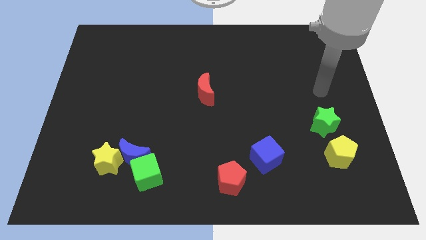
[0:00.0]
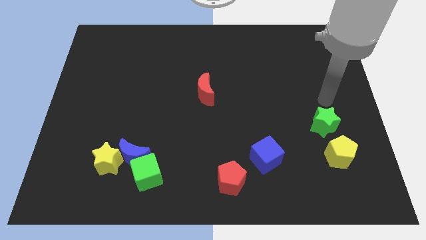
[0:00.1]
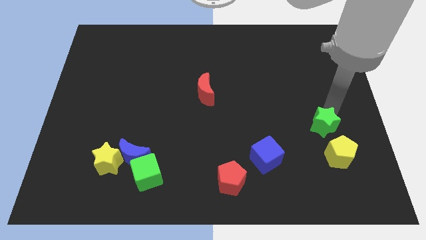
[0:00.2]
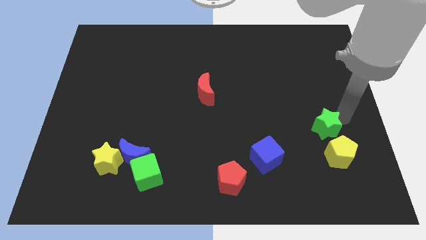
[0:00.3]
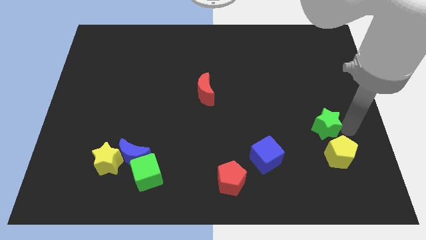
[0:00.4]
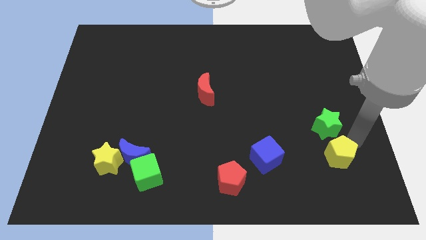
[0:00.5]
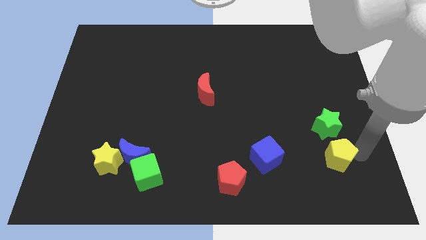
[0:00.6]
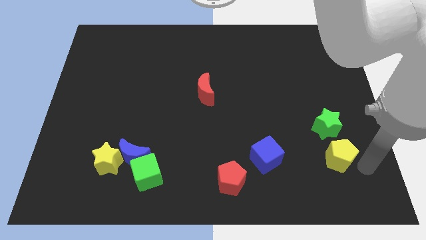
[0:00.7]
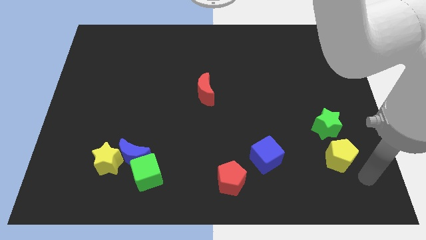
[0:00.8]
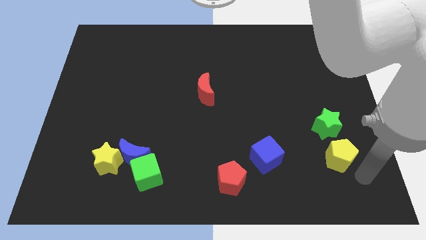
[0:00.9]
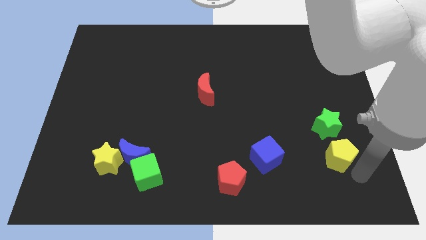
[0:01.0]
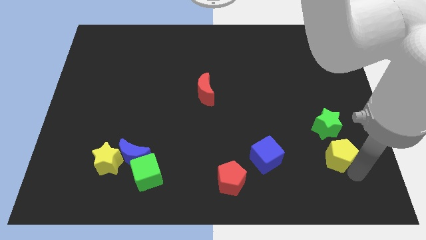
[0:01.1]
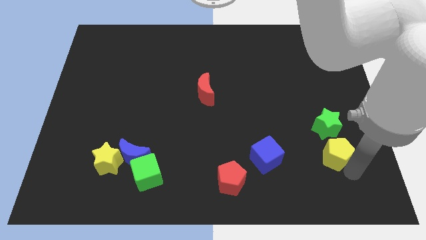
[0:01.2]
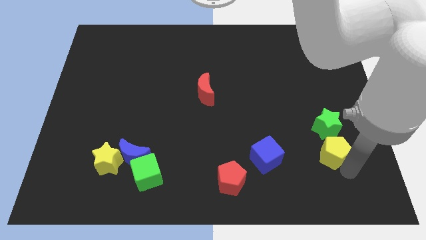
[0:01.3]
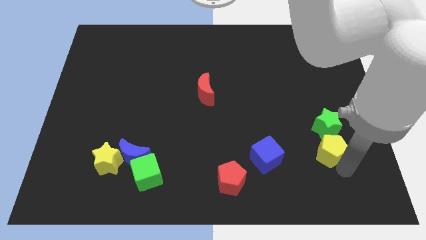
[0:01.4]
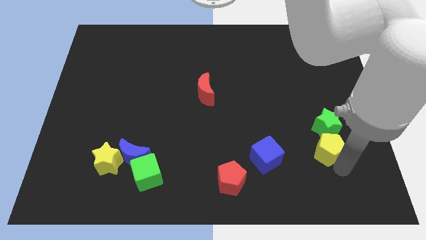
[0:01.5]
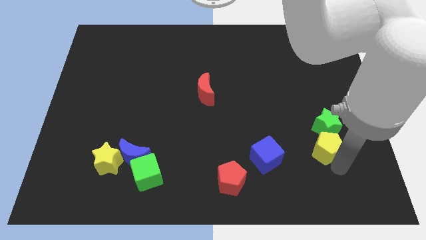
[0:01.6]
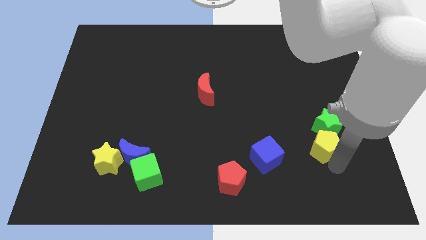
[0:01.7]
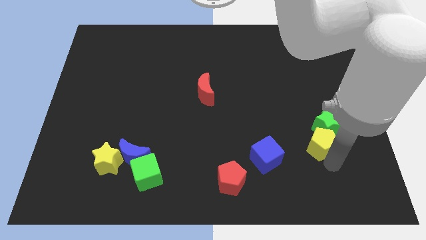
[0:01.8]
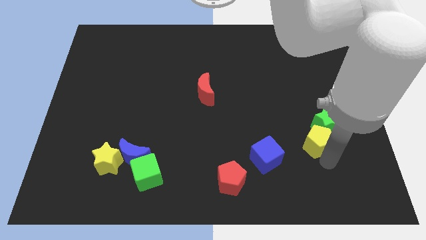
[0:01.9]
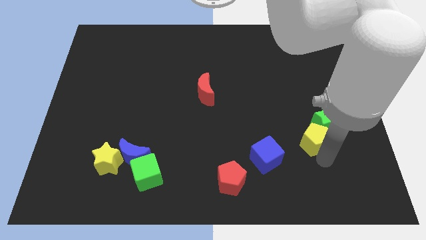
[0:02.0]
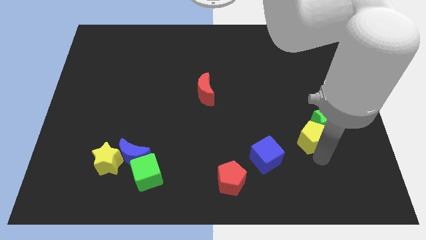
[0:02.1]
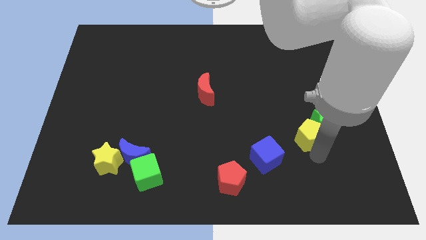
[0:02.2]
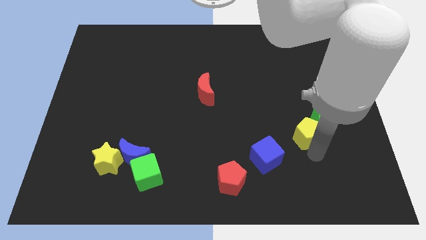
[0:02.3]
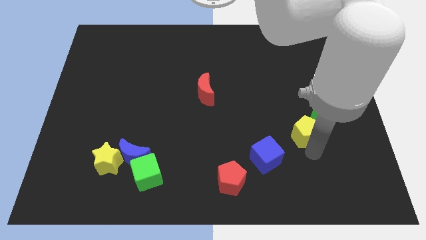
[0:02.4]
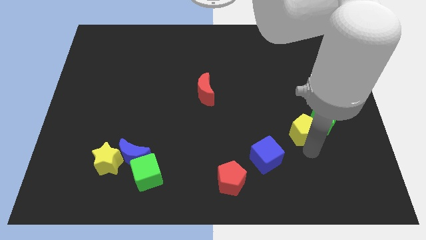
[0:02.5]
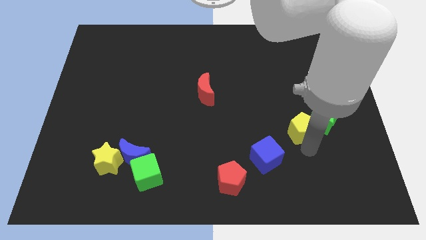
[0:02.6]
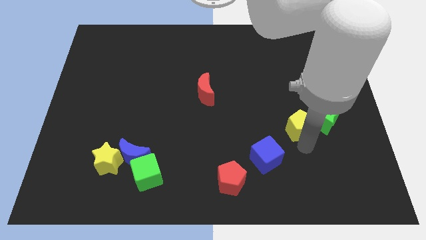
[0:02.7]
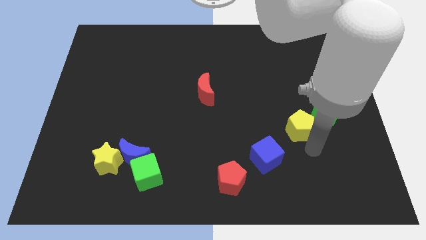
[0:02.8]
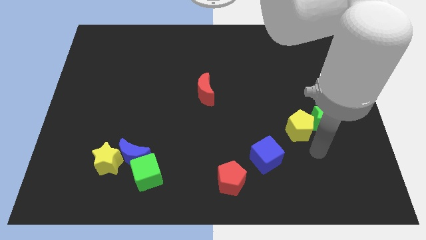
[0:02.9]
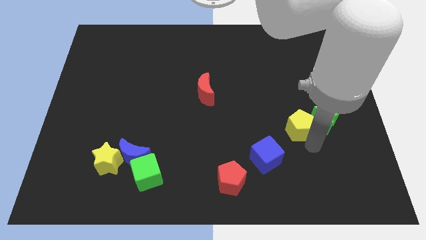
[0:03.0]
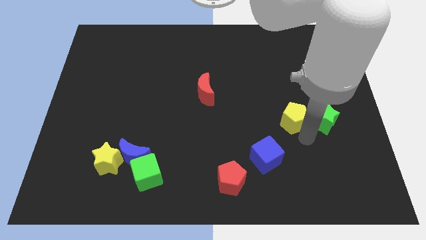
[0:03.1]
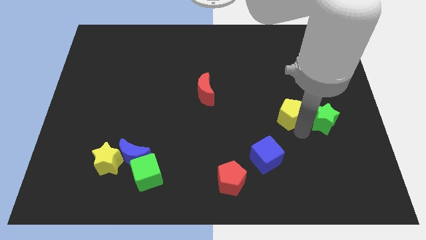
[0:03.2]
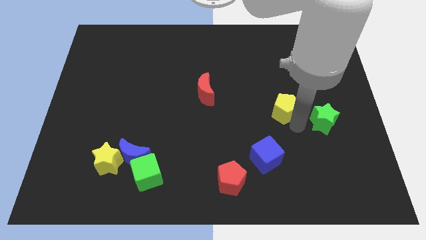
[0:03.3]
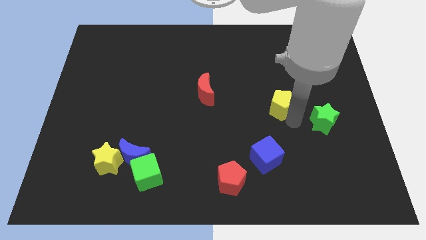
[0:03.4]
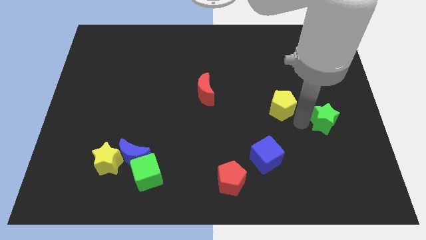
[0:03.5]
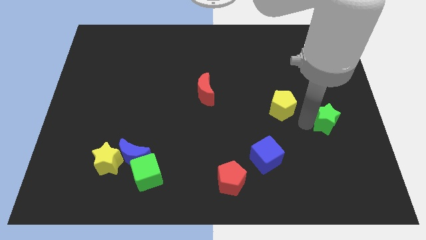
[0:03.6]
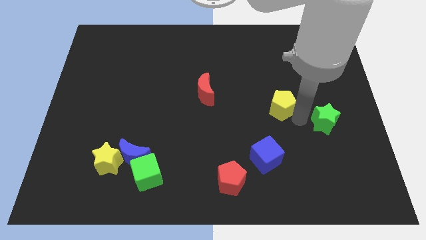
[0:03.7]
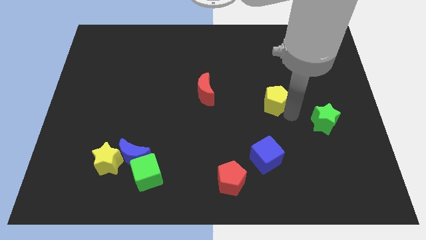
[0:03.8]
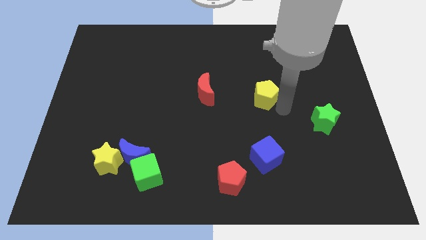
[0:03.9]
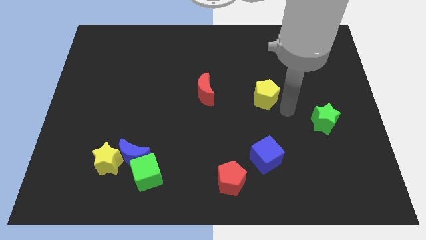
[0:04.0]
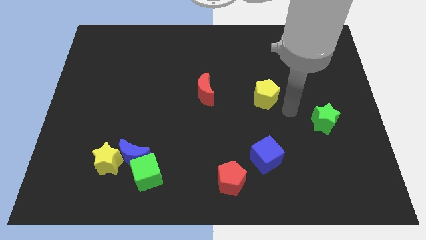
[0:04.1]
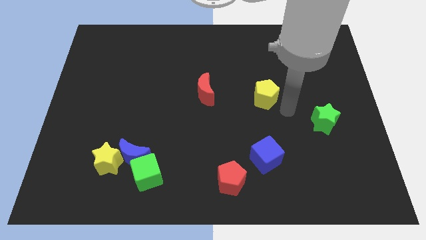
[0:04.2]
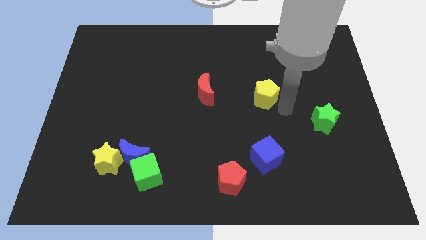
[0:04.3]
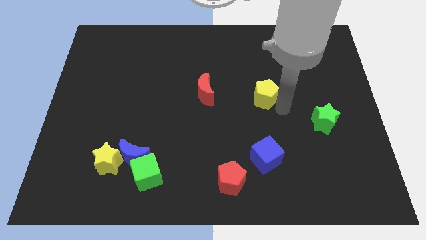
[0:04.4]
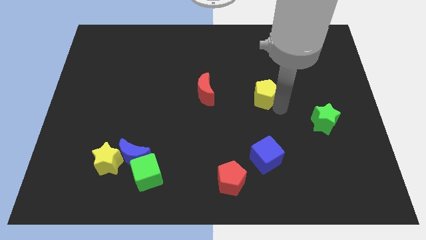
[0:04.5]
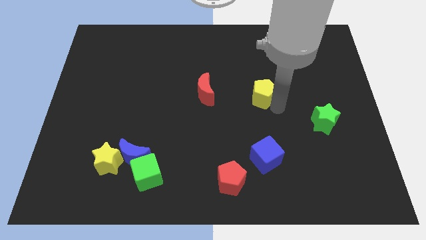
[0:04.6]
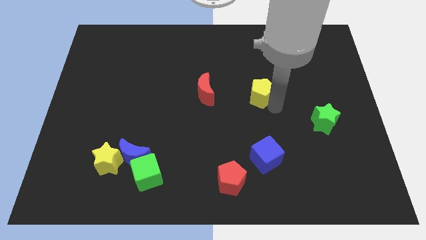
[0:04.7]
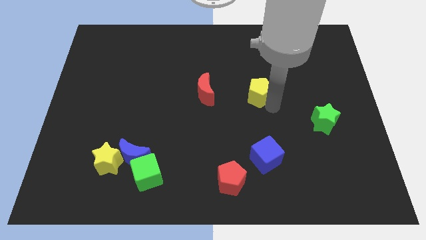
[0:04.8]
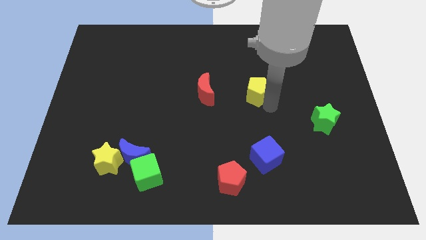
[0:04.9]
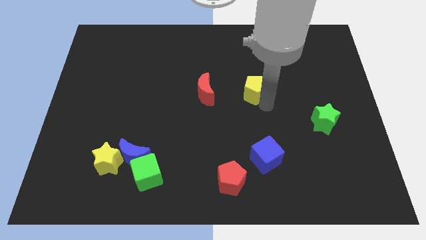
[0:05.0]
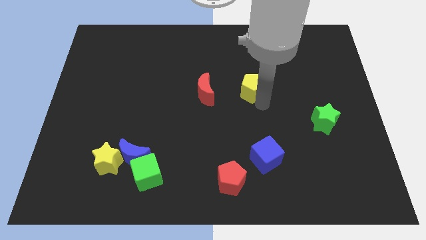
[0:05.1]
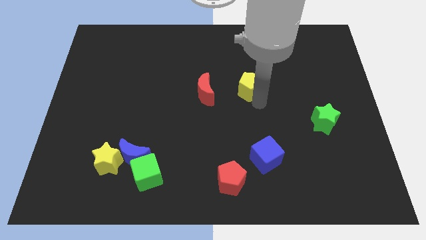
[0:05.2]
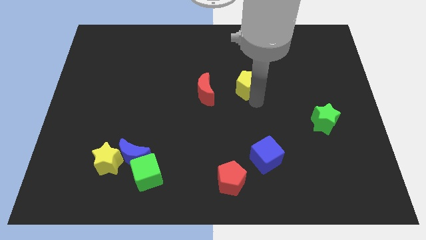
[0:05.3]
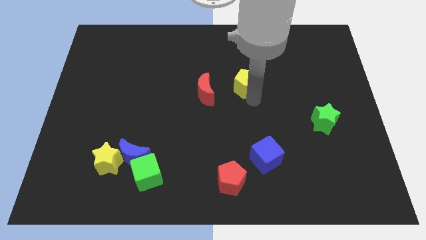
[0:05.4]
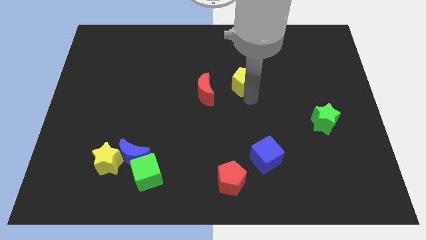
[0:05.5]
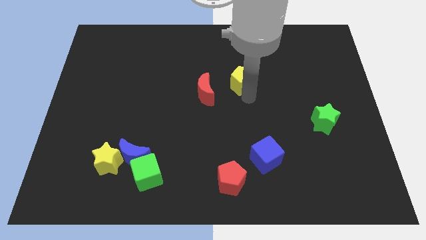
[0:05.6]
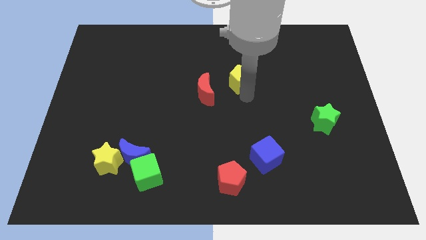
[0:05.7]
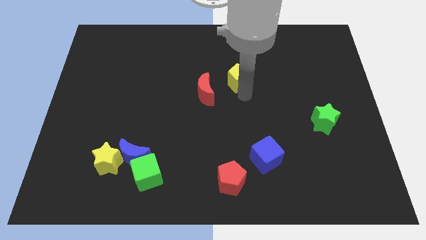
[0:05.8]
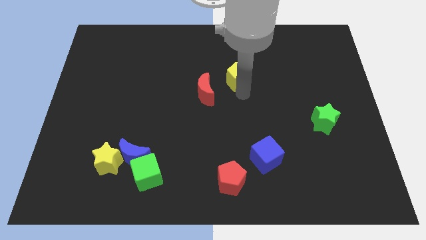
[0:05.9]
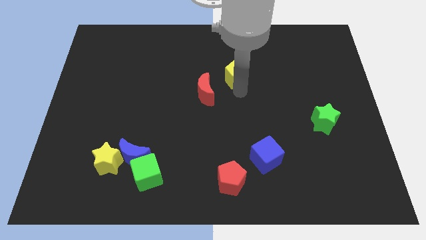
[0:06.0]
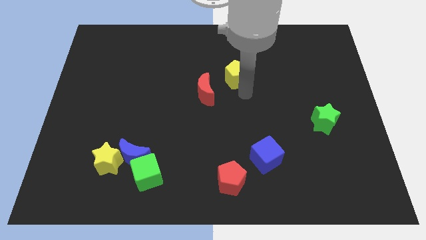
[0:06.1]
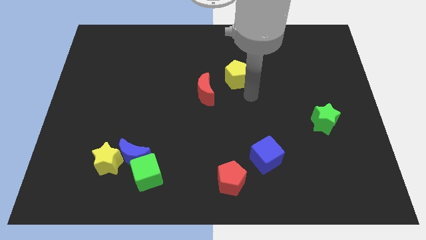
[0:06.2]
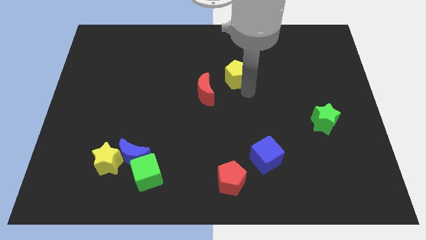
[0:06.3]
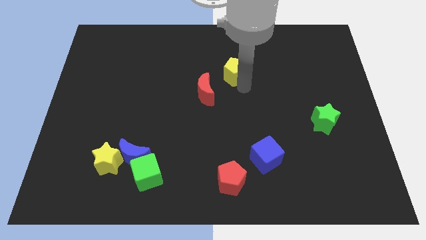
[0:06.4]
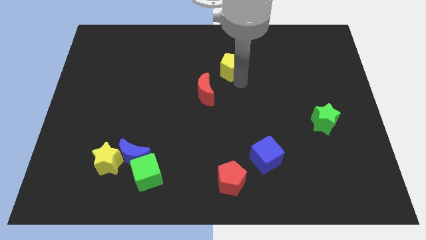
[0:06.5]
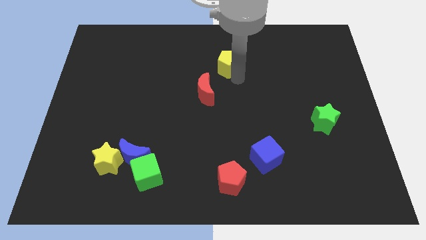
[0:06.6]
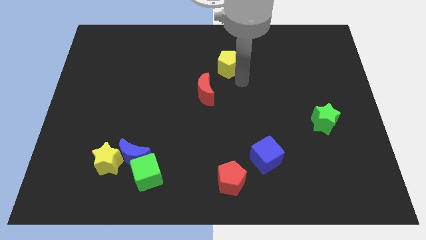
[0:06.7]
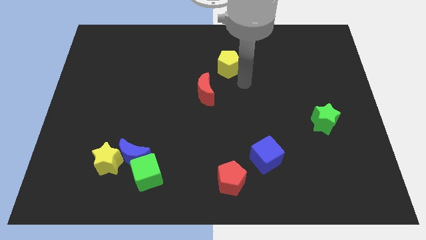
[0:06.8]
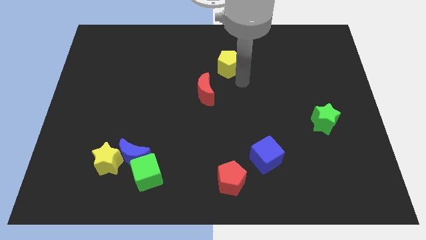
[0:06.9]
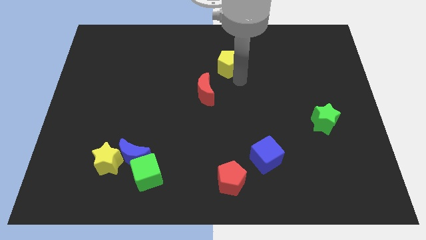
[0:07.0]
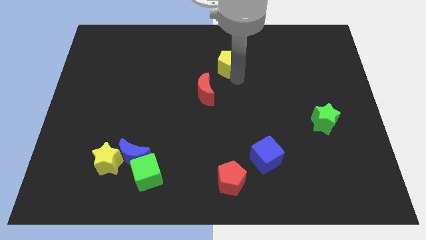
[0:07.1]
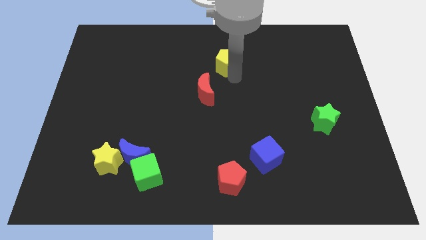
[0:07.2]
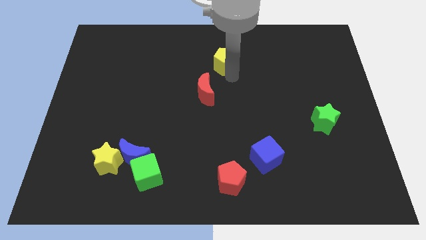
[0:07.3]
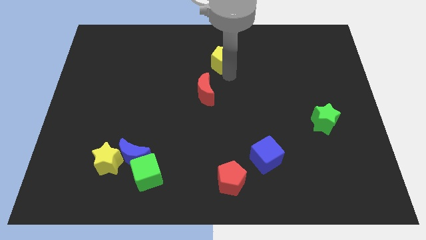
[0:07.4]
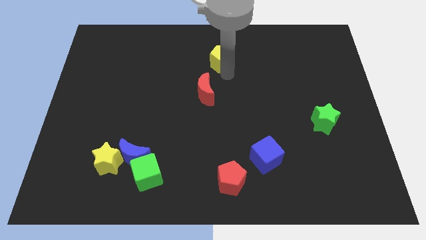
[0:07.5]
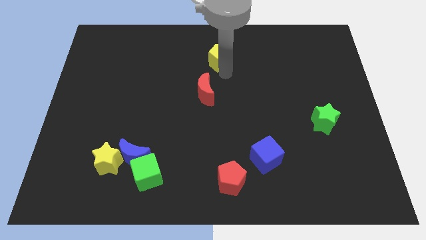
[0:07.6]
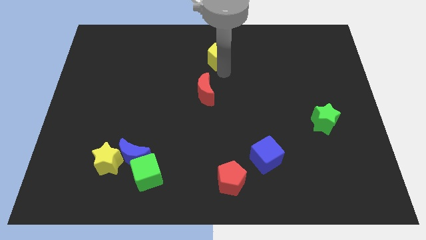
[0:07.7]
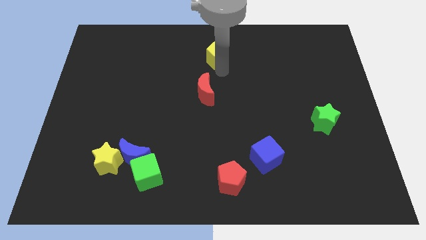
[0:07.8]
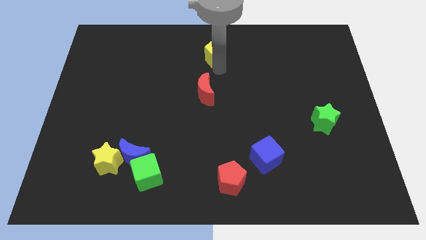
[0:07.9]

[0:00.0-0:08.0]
move the yellow pentagon to the towards your base
